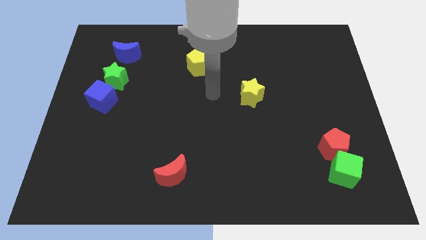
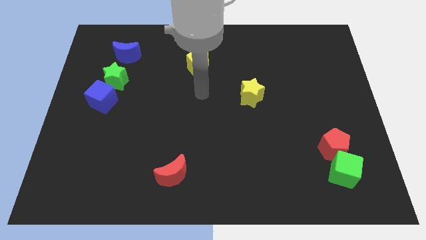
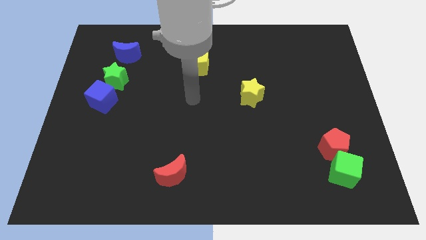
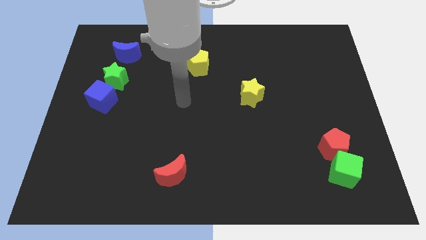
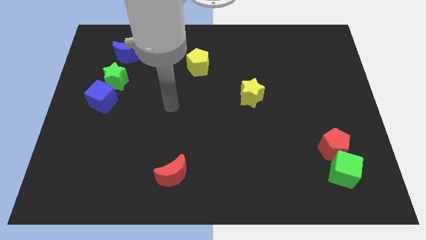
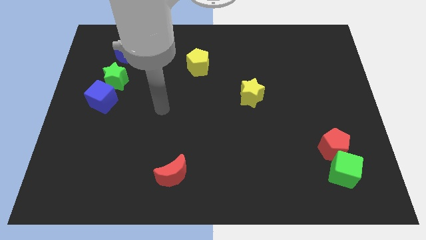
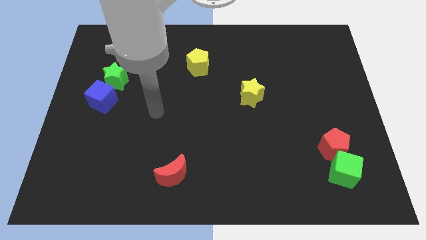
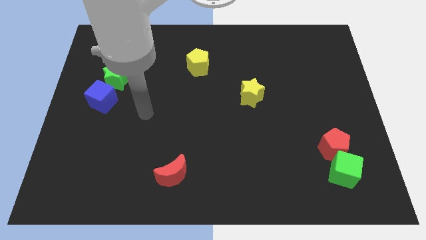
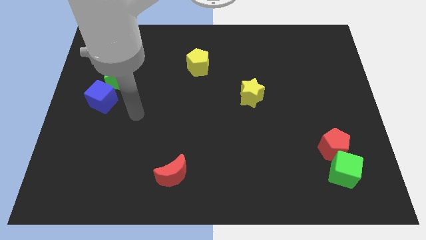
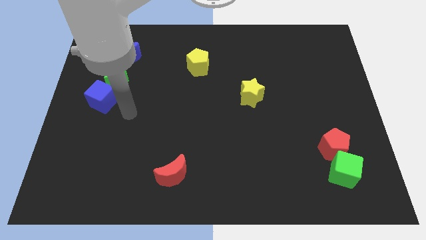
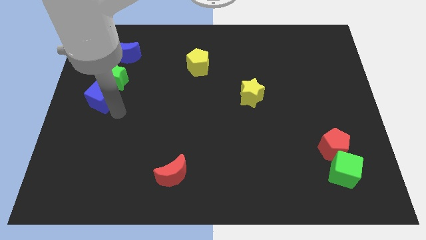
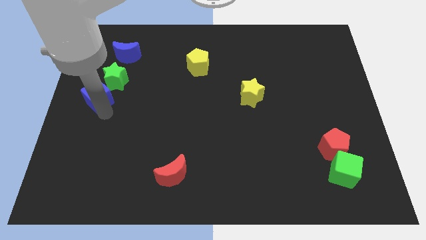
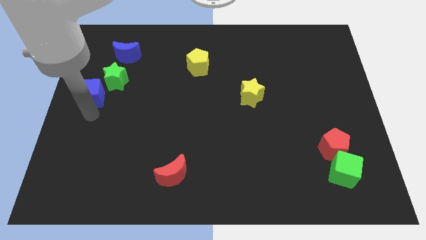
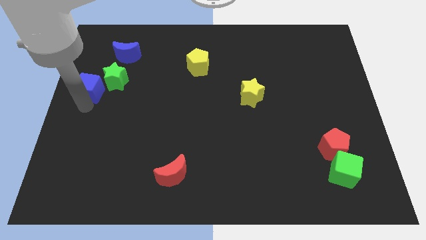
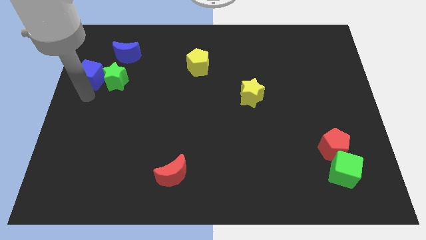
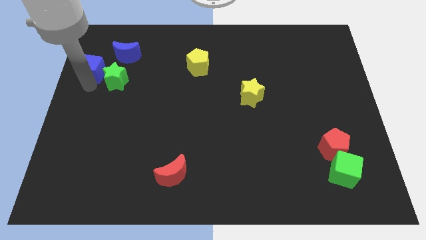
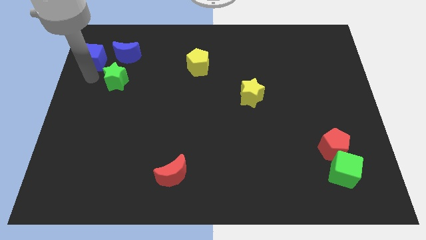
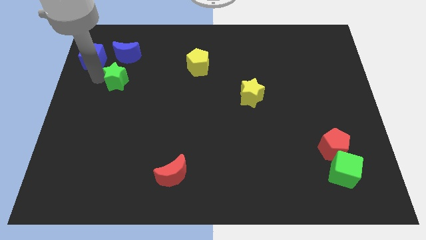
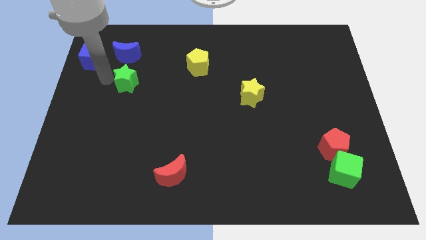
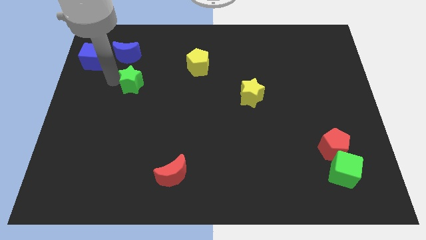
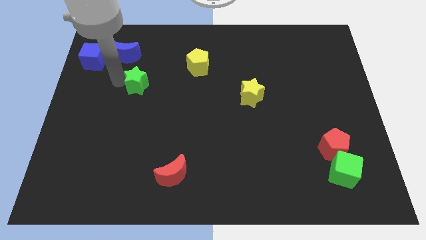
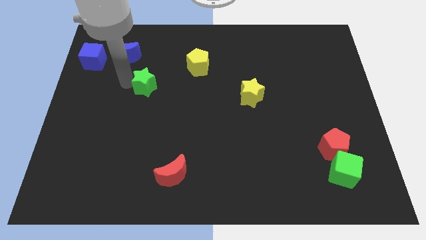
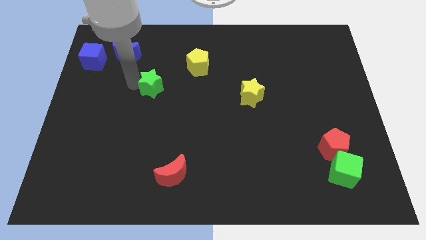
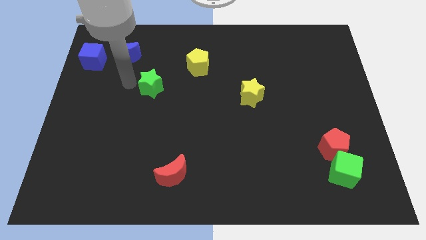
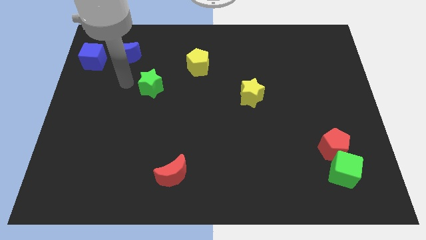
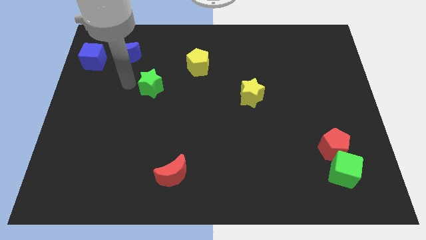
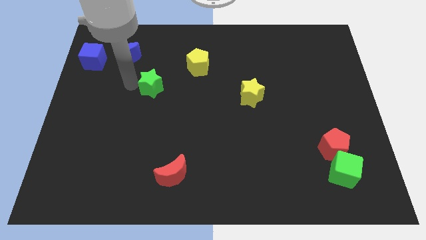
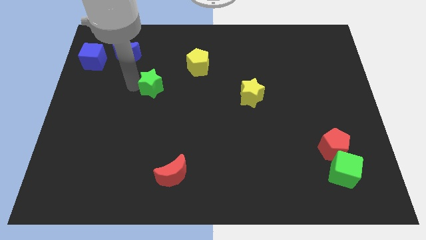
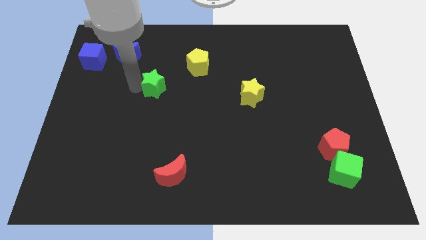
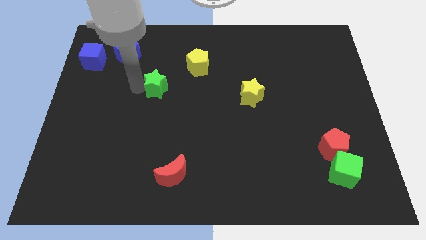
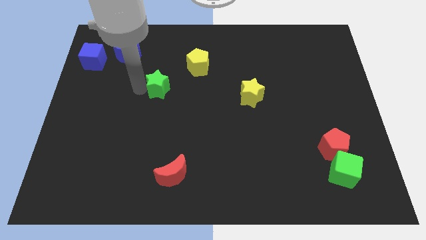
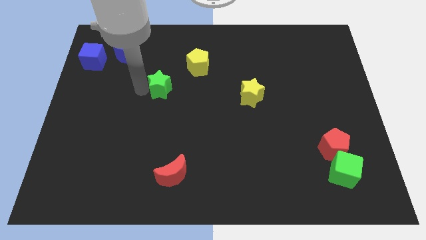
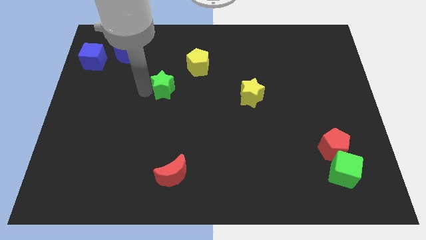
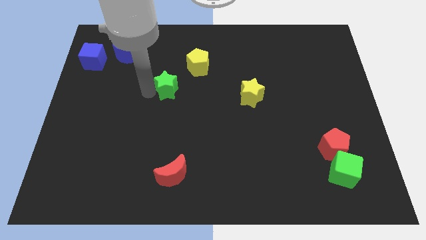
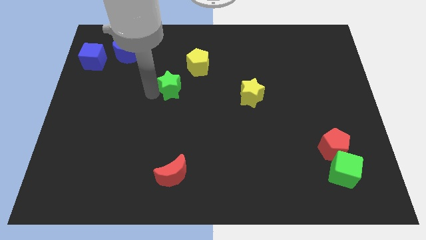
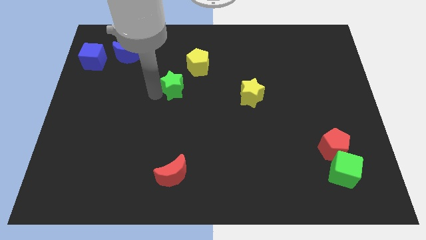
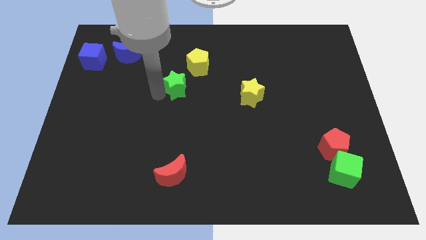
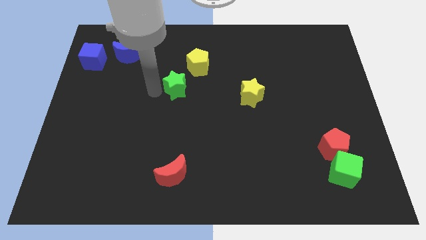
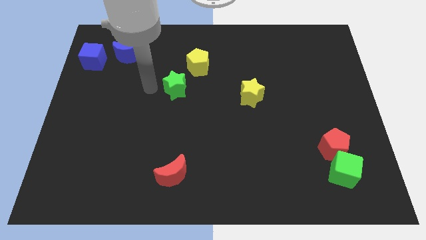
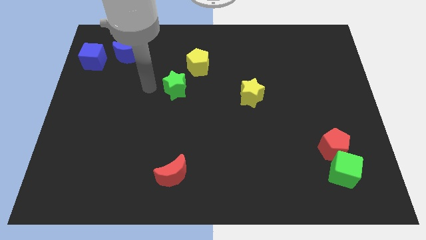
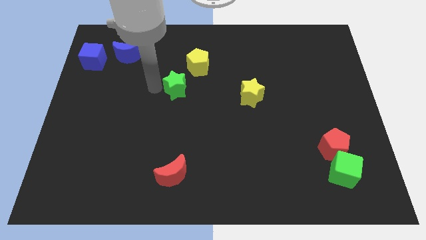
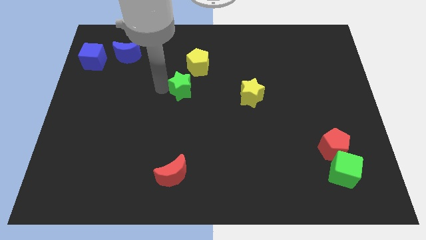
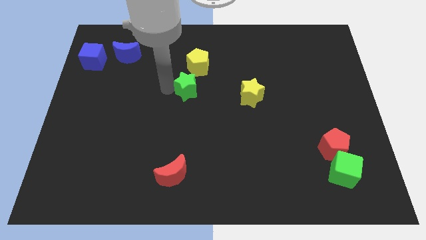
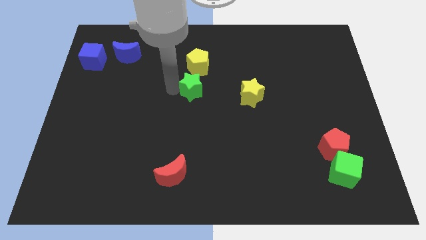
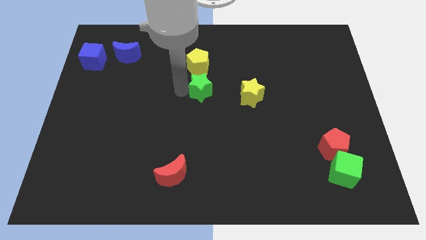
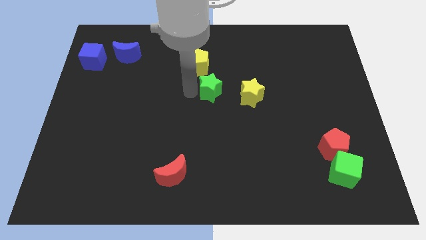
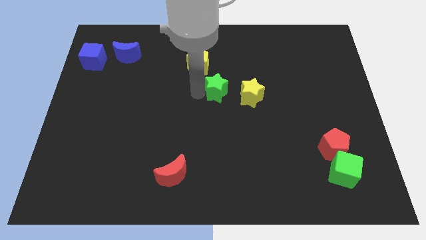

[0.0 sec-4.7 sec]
move the green star to the top left of the yellow star

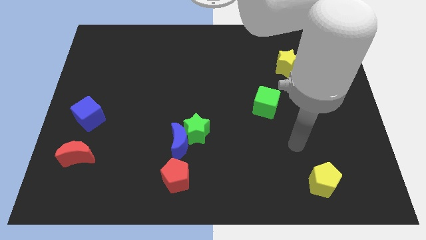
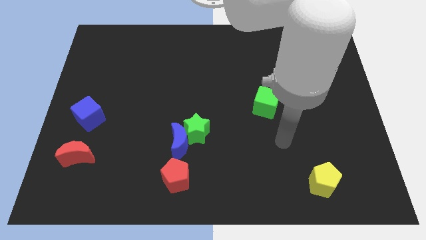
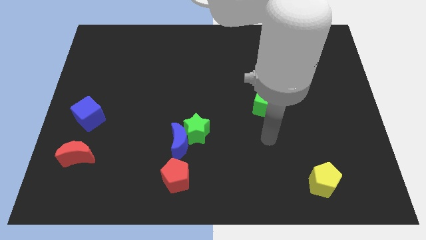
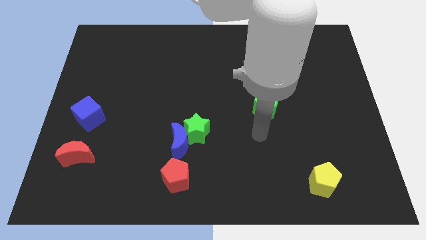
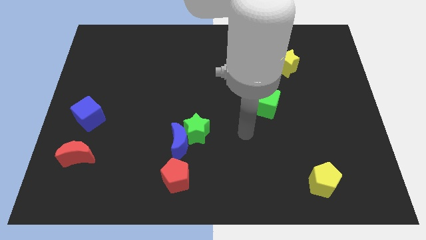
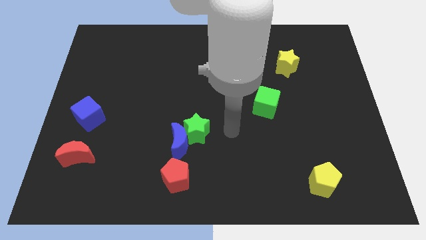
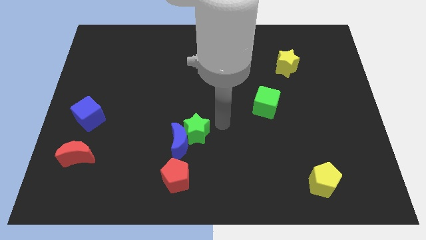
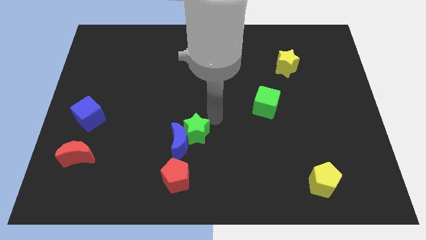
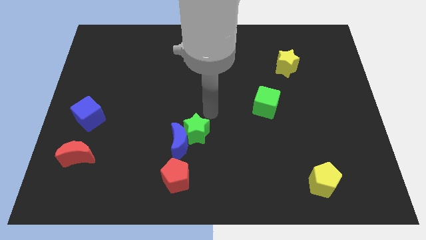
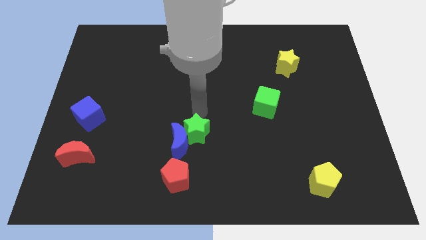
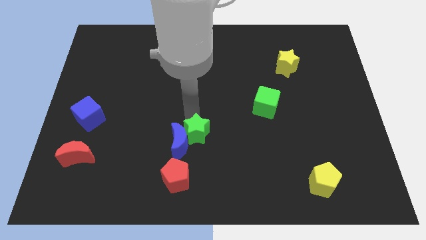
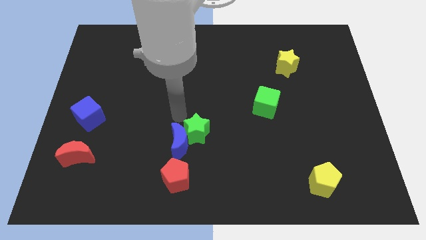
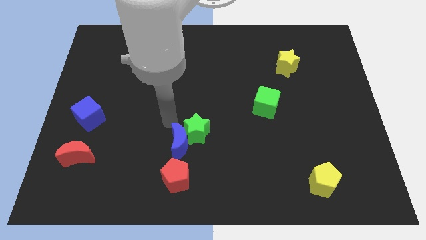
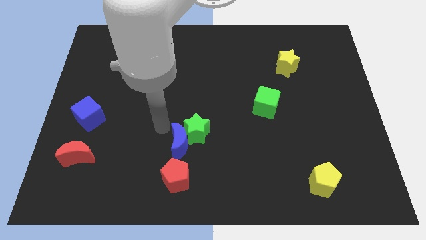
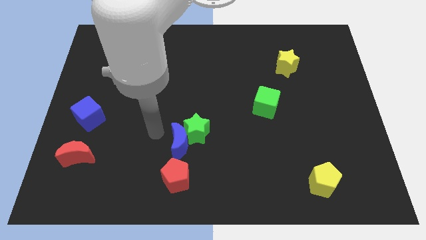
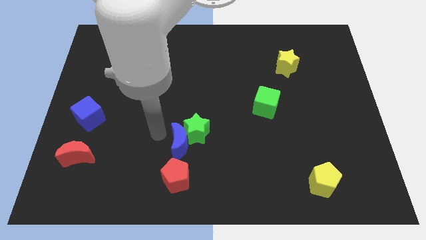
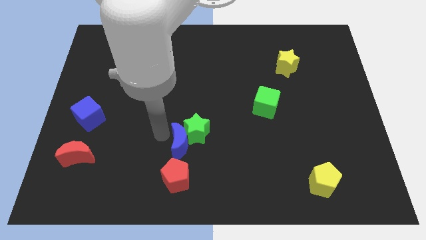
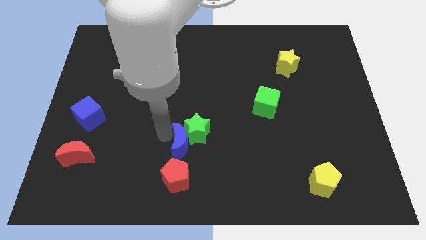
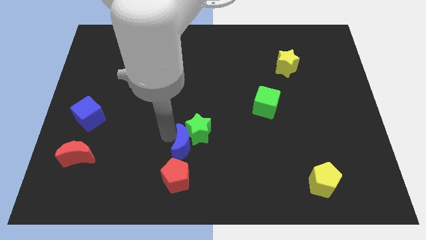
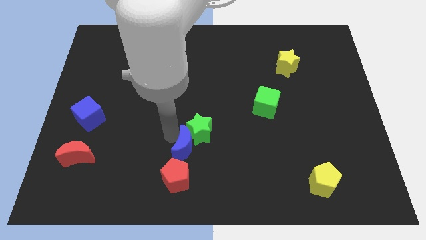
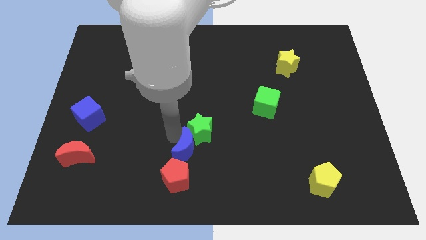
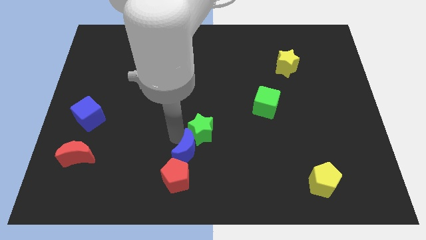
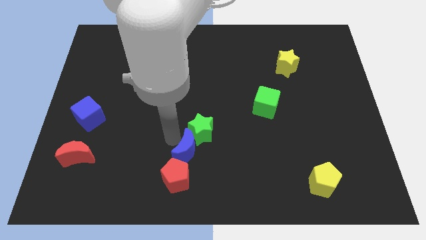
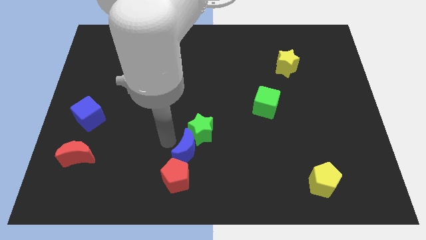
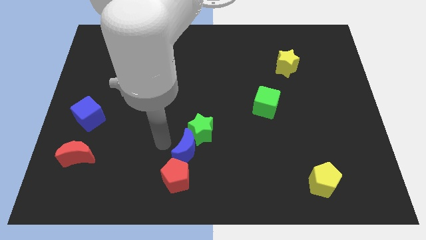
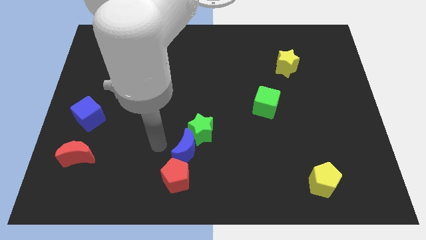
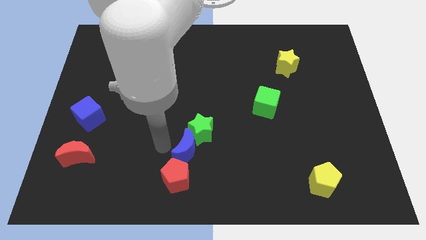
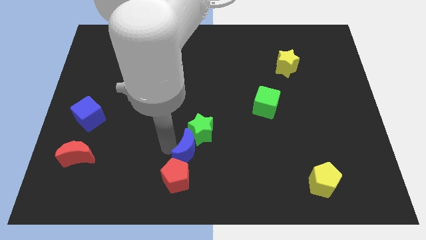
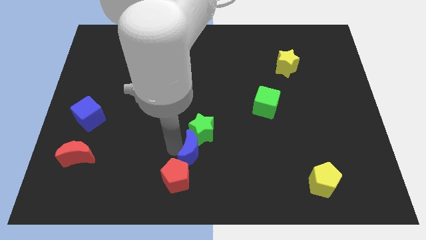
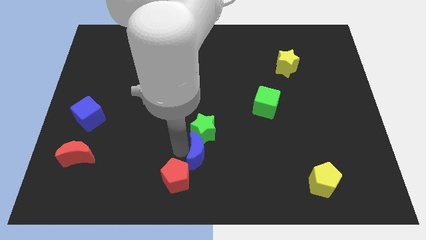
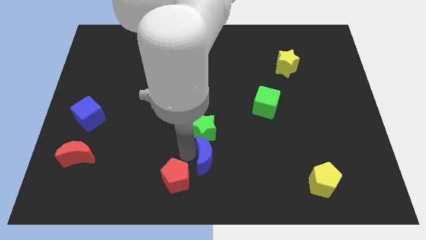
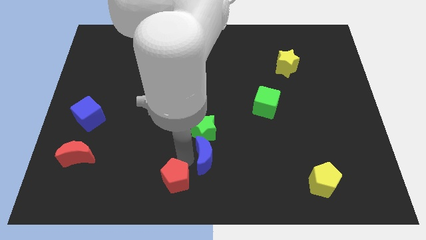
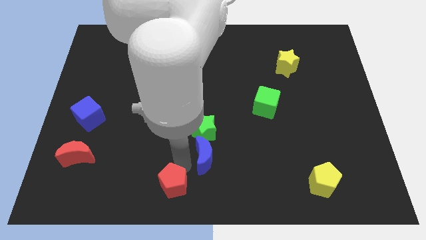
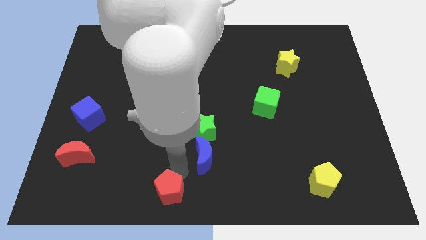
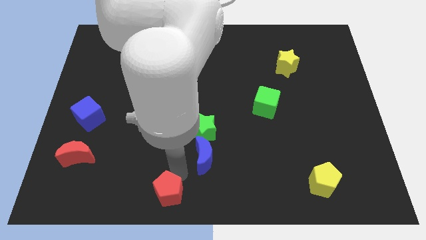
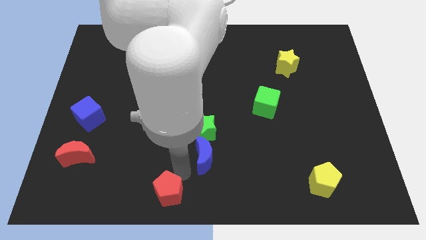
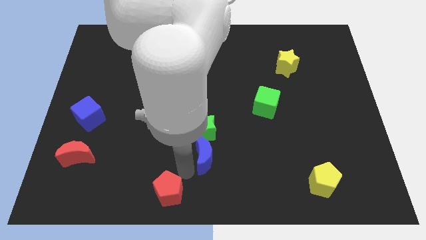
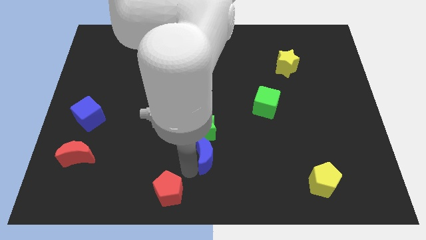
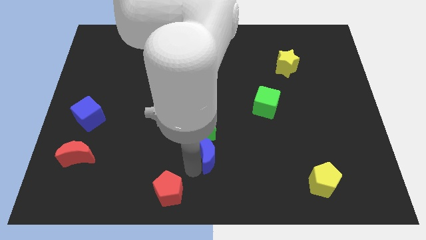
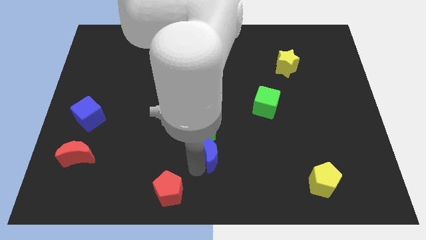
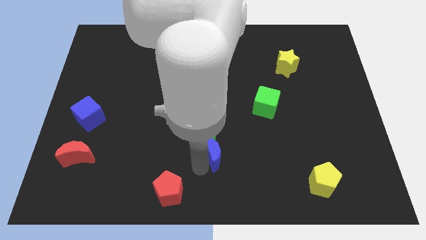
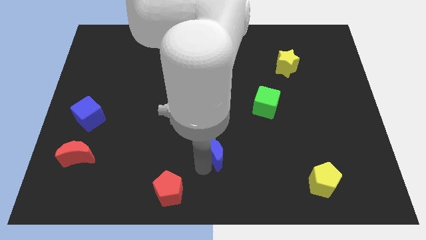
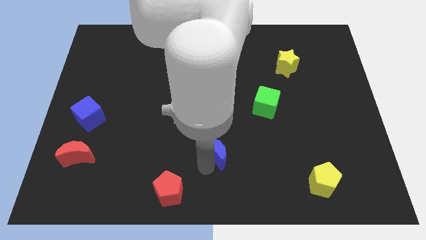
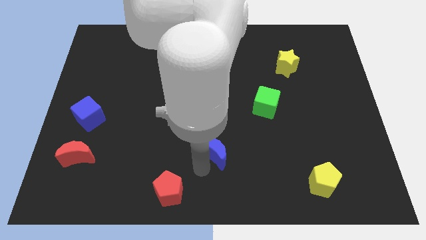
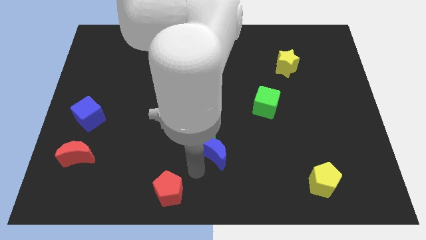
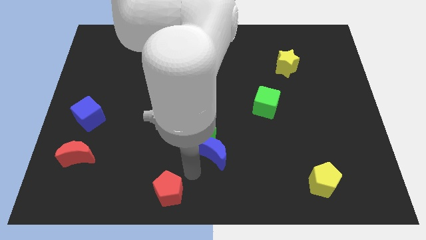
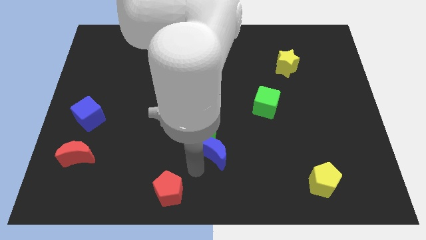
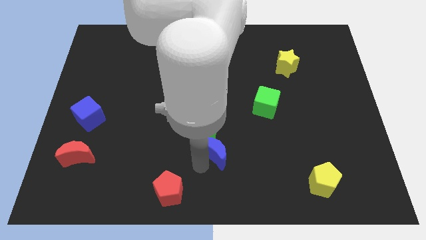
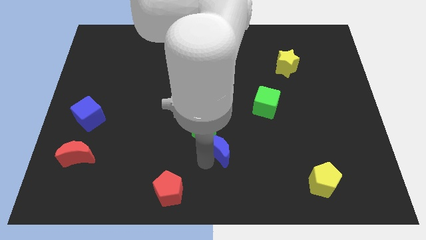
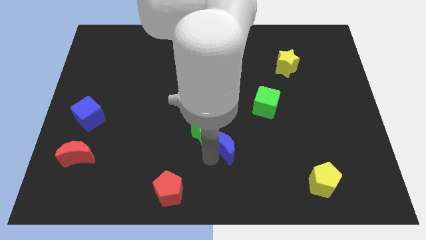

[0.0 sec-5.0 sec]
push the blue moon just right of the green star
